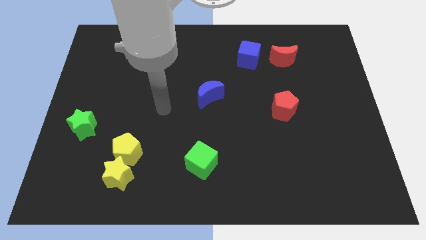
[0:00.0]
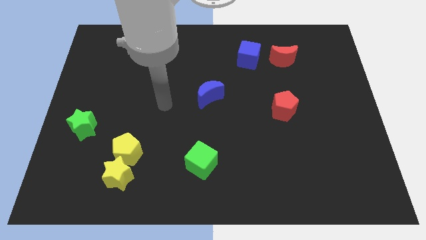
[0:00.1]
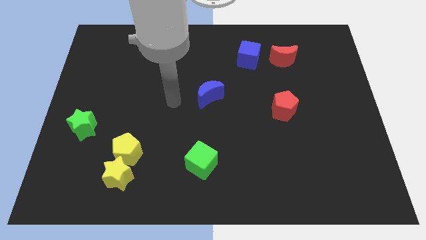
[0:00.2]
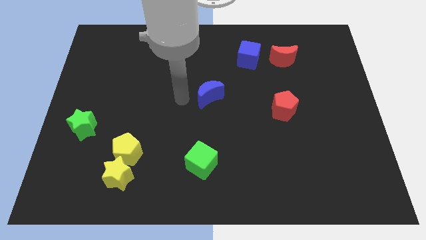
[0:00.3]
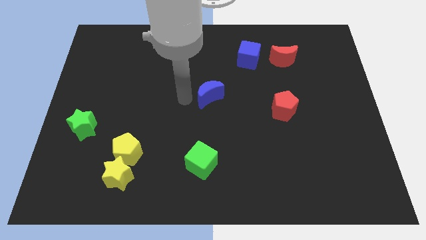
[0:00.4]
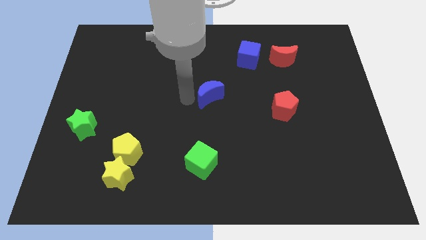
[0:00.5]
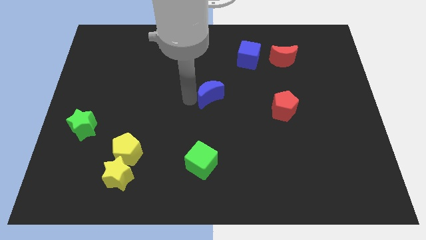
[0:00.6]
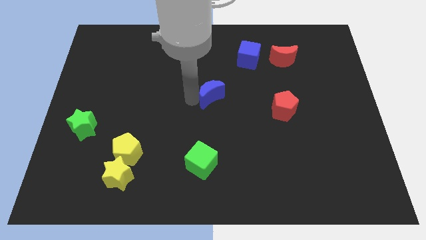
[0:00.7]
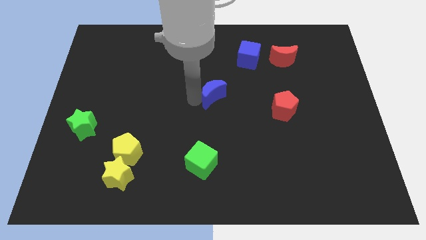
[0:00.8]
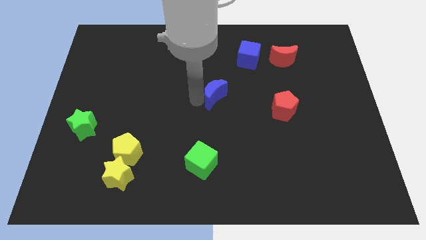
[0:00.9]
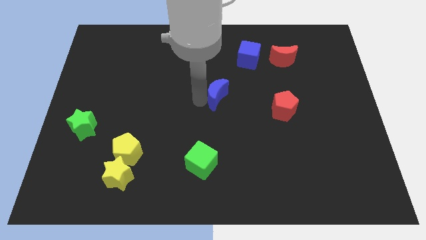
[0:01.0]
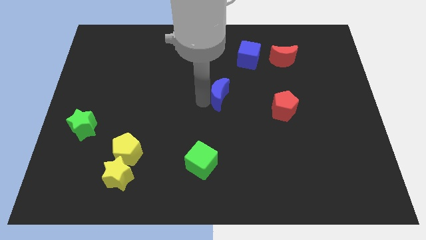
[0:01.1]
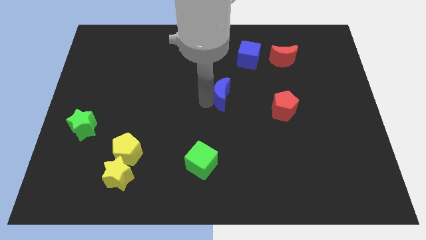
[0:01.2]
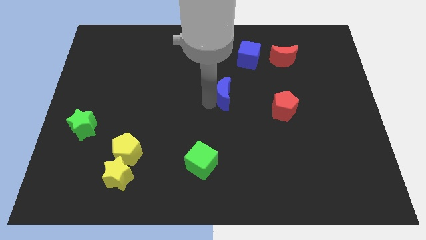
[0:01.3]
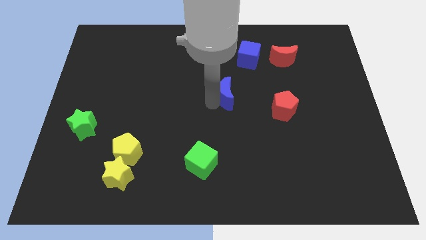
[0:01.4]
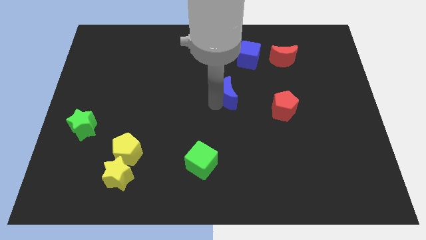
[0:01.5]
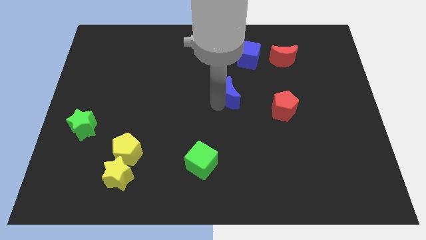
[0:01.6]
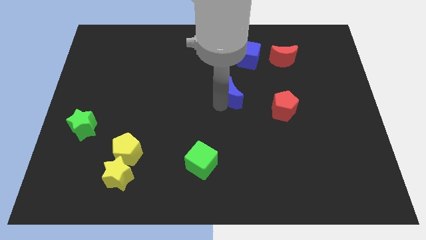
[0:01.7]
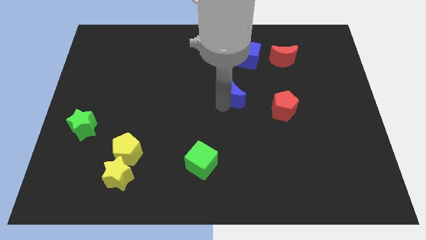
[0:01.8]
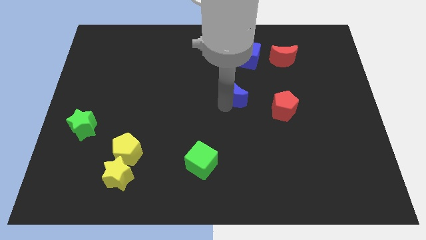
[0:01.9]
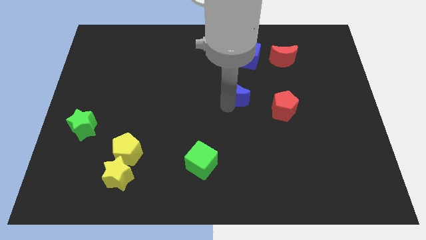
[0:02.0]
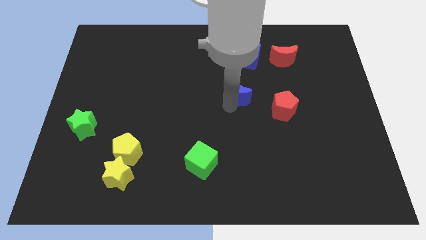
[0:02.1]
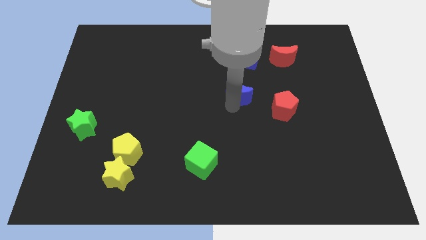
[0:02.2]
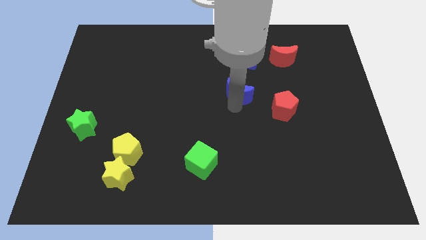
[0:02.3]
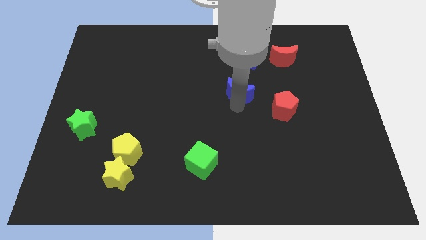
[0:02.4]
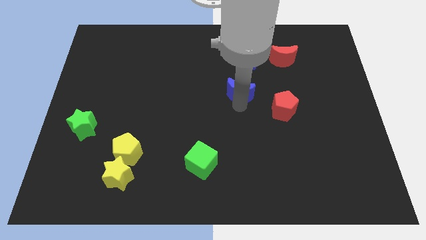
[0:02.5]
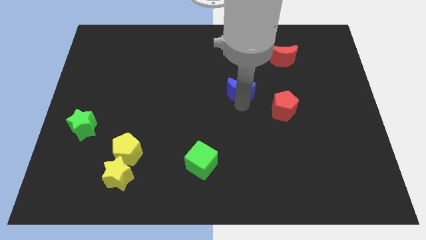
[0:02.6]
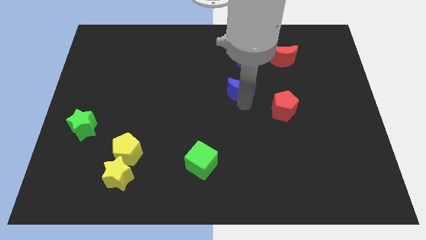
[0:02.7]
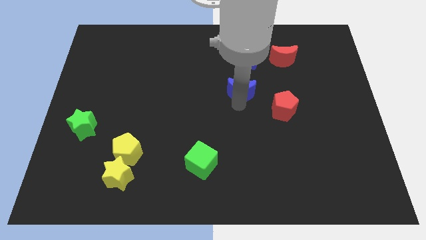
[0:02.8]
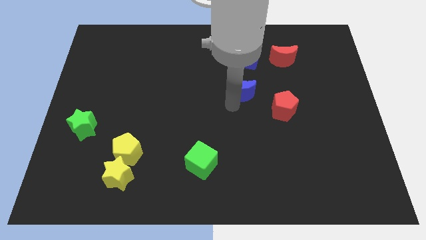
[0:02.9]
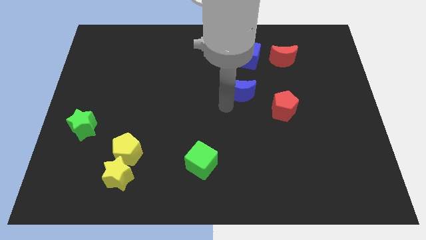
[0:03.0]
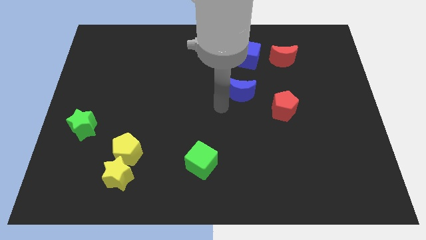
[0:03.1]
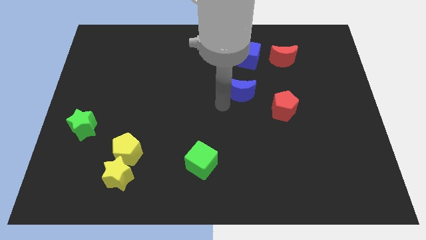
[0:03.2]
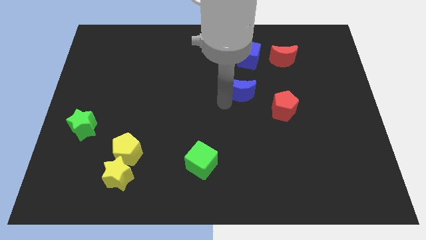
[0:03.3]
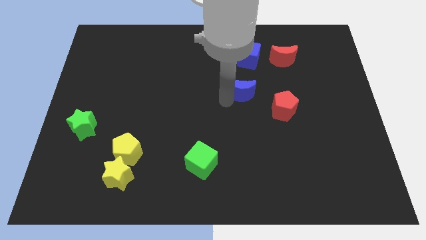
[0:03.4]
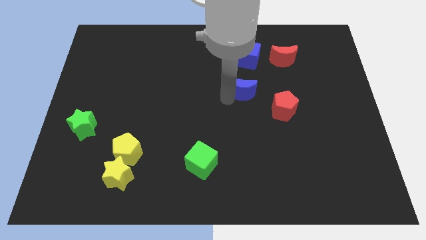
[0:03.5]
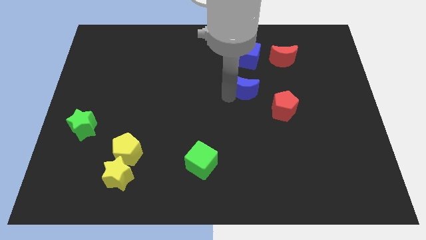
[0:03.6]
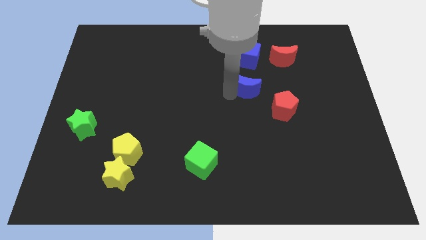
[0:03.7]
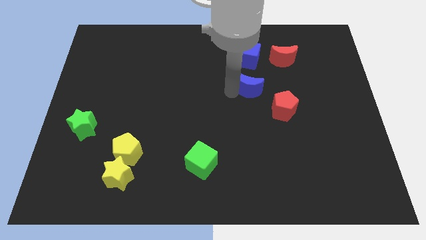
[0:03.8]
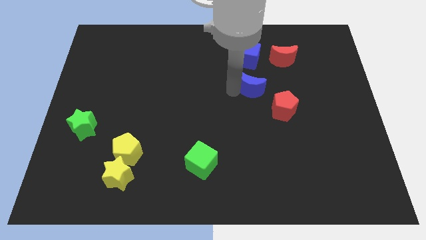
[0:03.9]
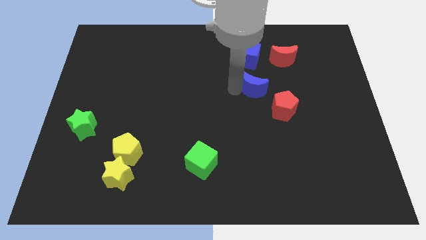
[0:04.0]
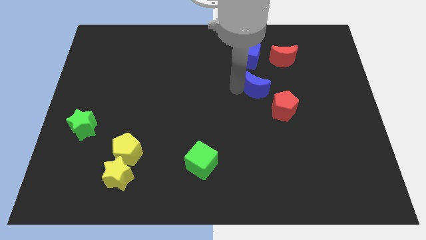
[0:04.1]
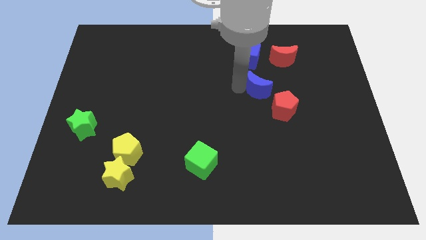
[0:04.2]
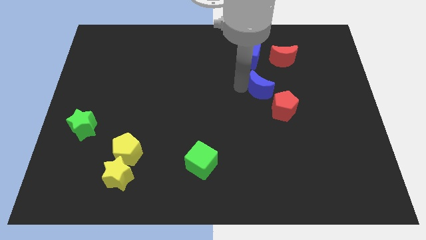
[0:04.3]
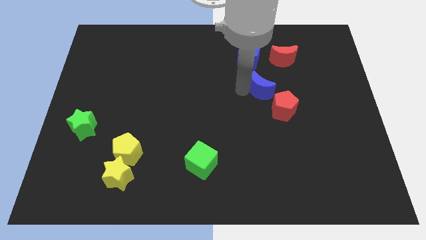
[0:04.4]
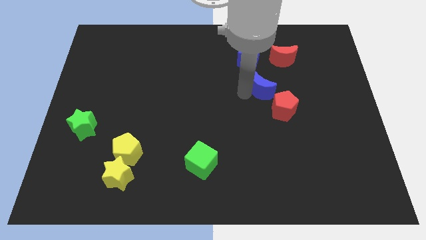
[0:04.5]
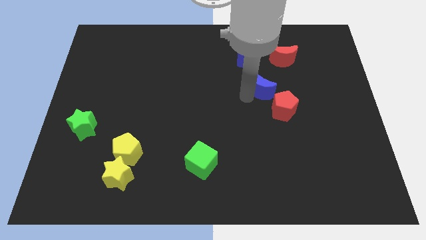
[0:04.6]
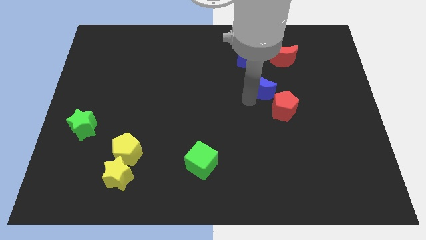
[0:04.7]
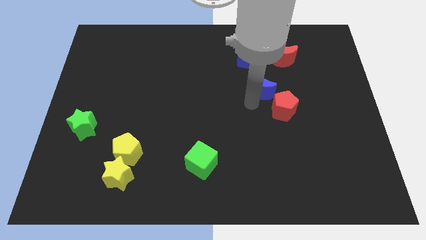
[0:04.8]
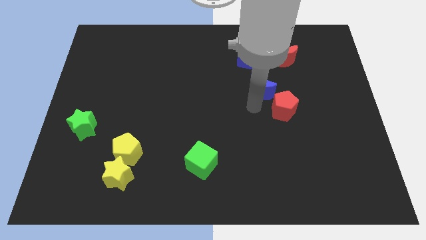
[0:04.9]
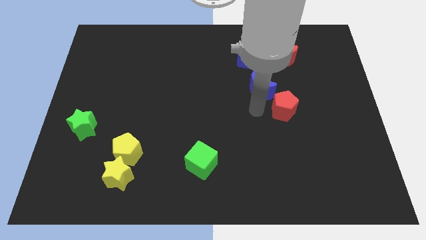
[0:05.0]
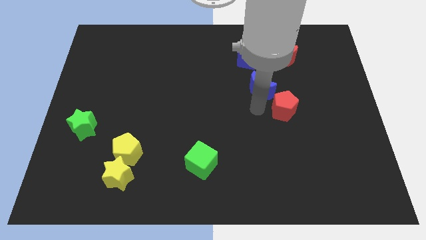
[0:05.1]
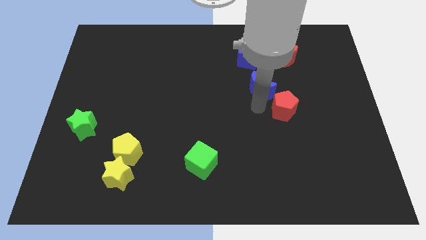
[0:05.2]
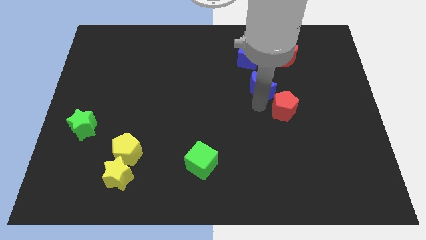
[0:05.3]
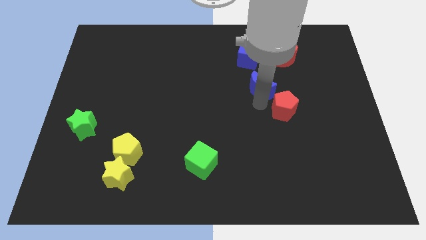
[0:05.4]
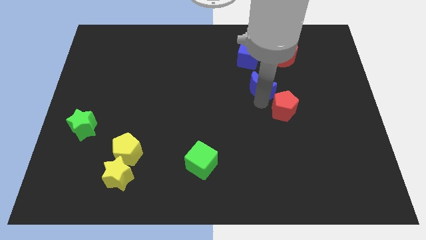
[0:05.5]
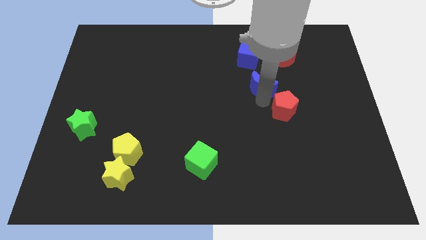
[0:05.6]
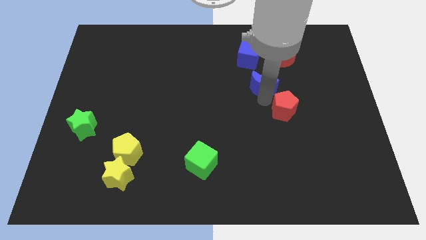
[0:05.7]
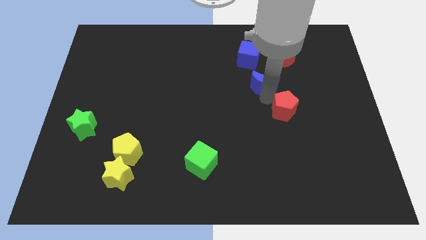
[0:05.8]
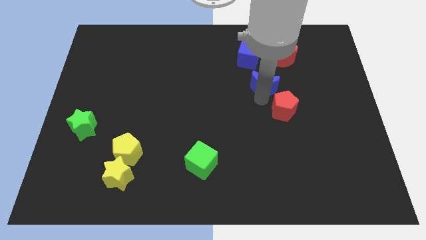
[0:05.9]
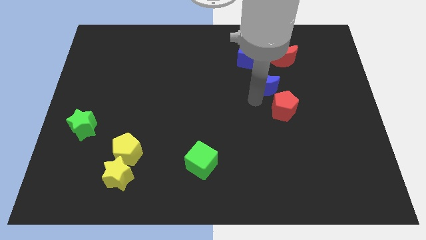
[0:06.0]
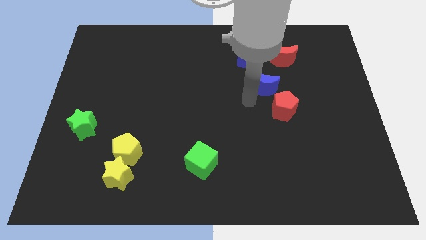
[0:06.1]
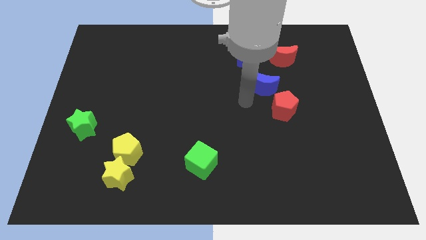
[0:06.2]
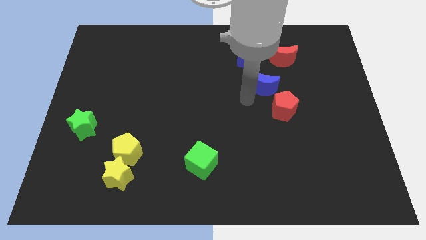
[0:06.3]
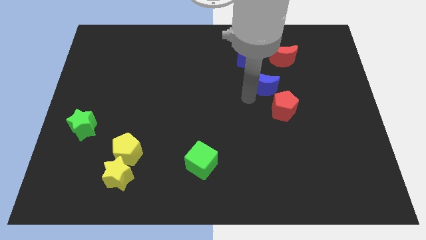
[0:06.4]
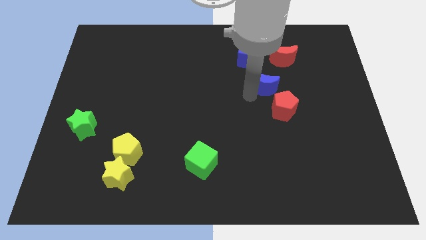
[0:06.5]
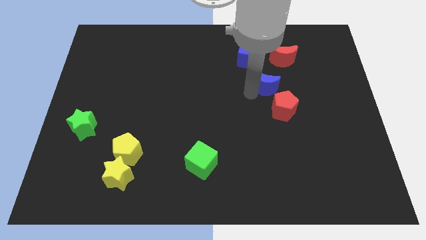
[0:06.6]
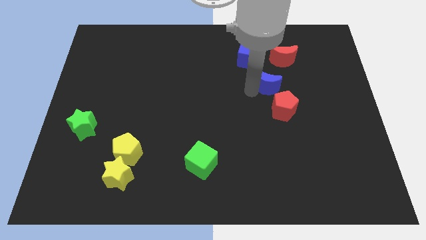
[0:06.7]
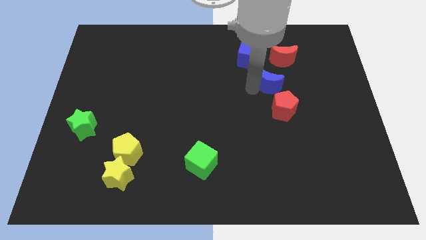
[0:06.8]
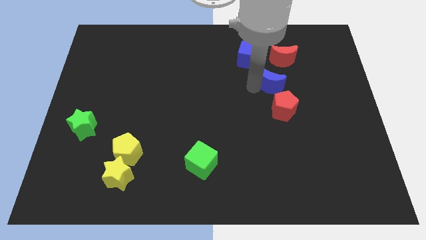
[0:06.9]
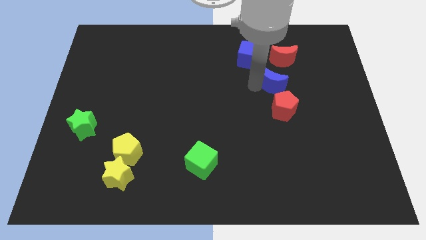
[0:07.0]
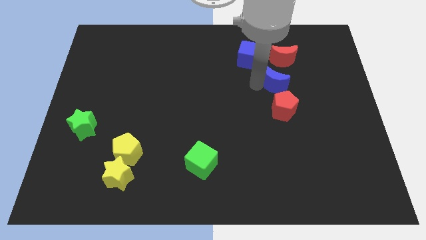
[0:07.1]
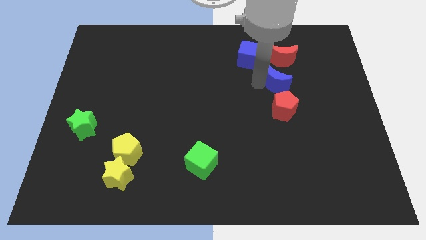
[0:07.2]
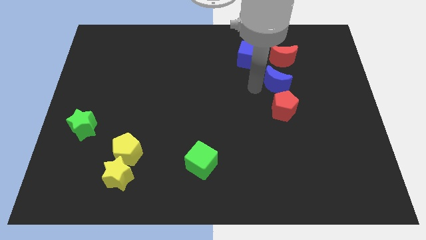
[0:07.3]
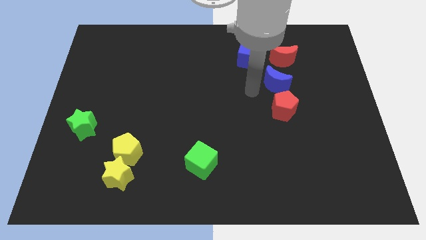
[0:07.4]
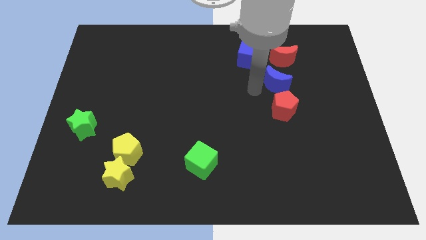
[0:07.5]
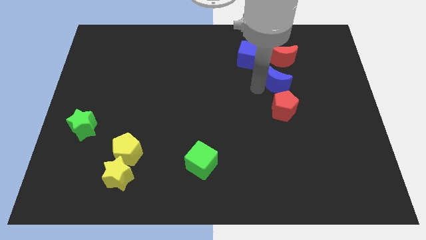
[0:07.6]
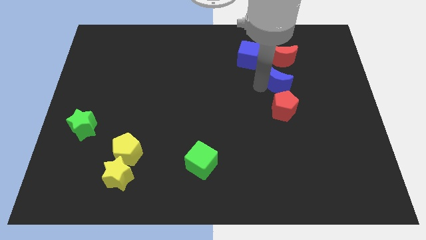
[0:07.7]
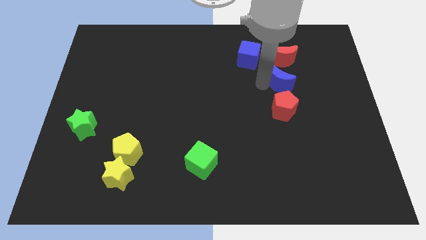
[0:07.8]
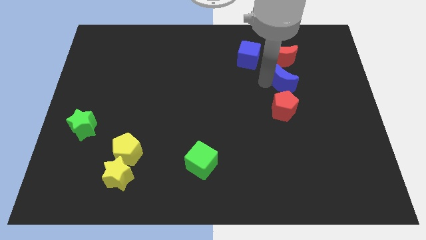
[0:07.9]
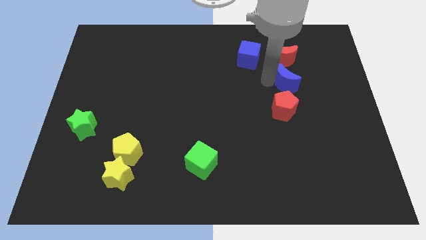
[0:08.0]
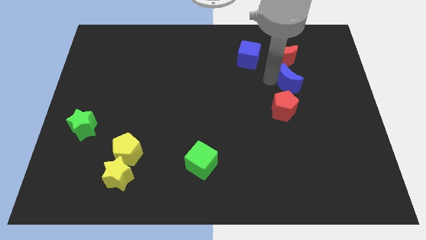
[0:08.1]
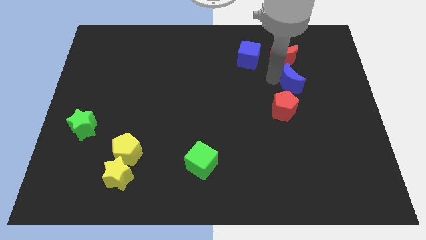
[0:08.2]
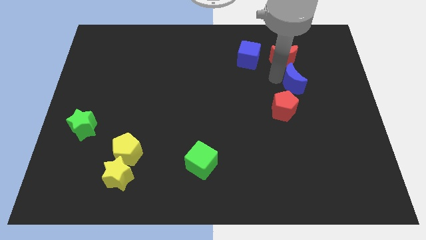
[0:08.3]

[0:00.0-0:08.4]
move the blue moon diagonally down and to the right of the red moon
